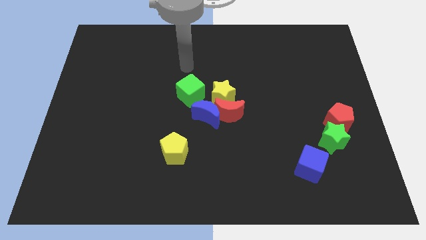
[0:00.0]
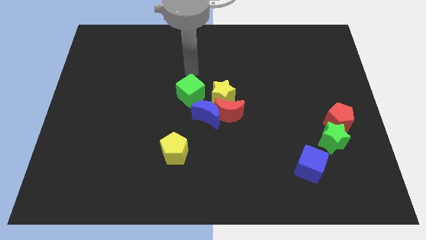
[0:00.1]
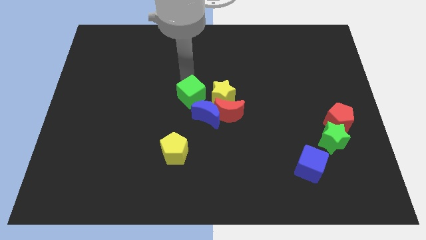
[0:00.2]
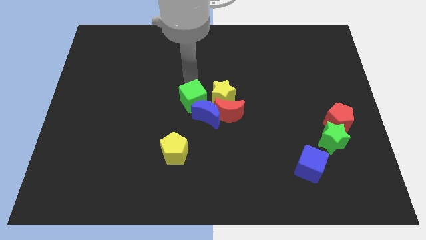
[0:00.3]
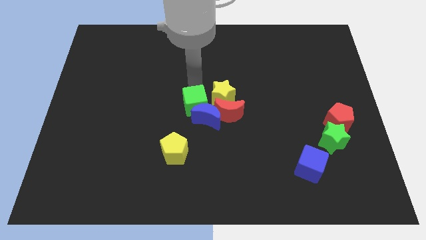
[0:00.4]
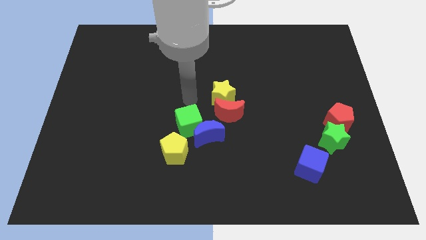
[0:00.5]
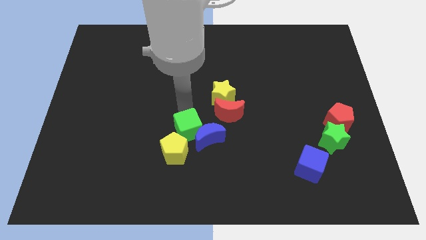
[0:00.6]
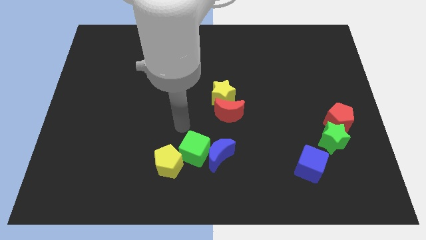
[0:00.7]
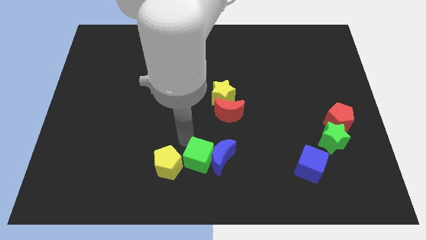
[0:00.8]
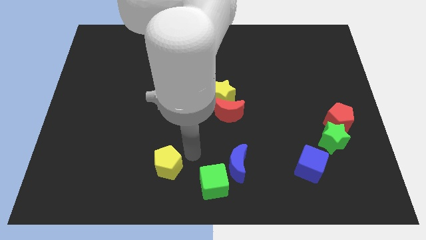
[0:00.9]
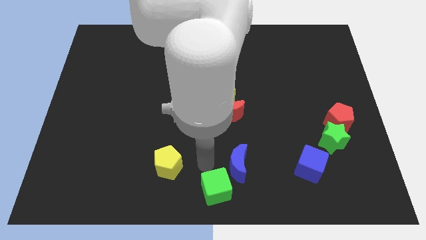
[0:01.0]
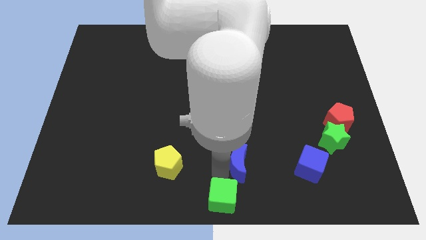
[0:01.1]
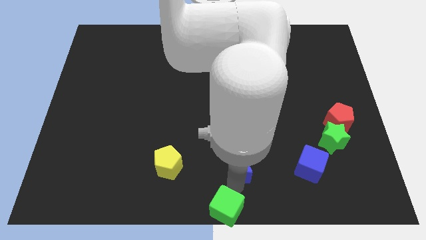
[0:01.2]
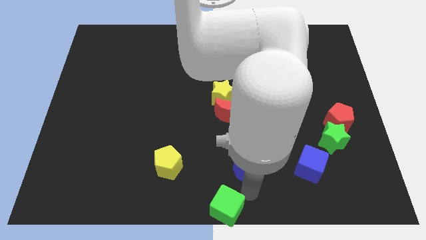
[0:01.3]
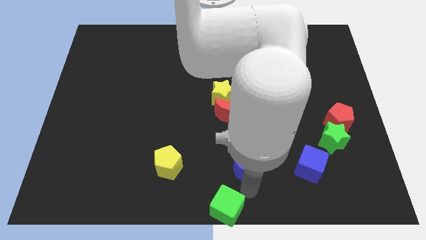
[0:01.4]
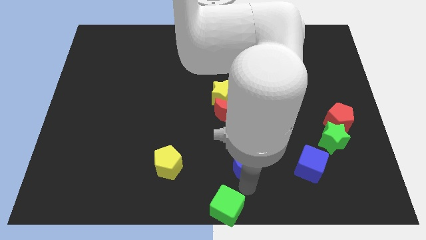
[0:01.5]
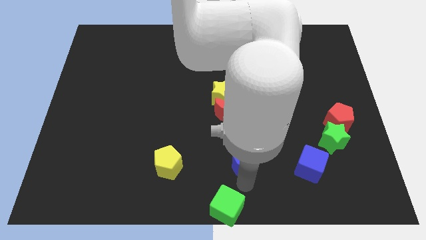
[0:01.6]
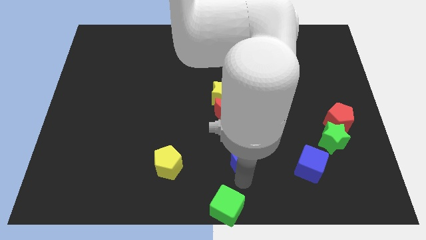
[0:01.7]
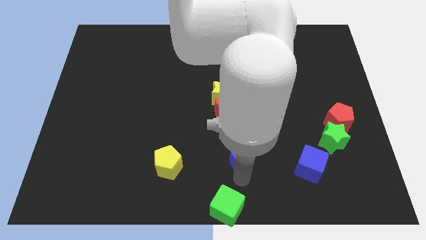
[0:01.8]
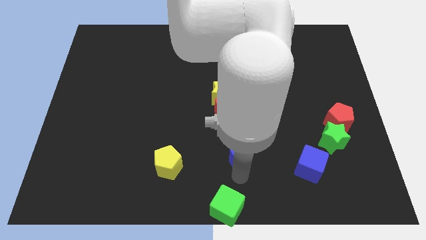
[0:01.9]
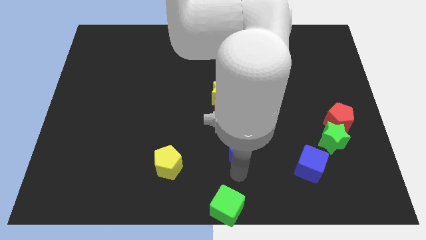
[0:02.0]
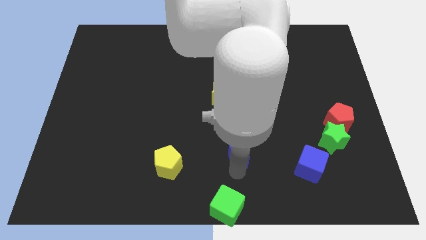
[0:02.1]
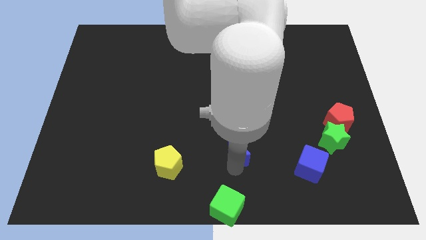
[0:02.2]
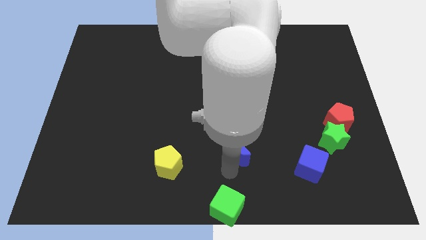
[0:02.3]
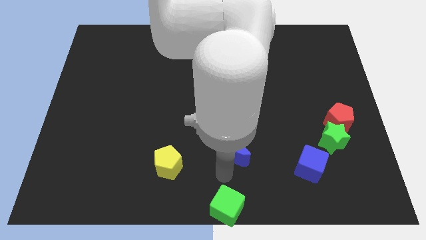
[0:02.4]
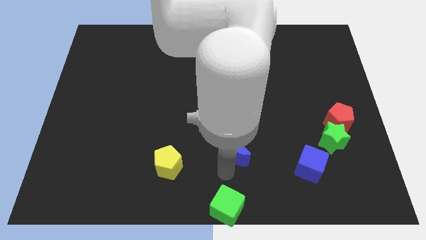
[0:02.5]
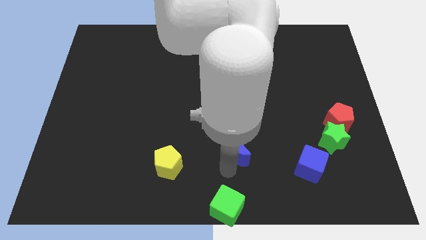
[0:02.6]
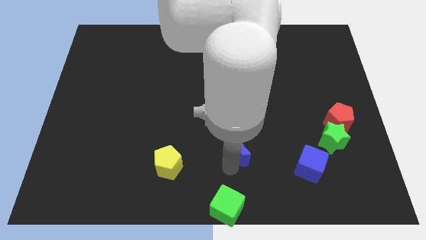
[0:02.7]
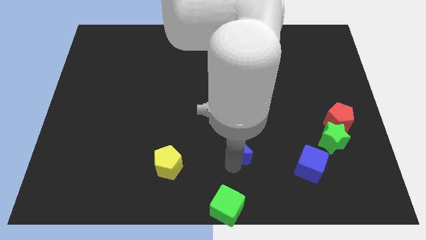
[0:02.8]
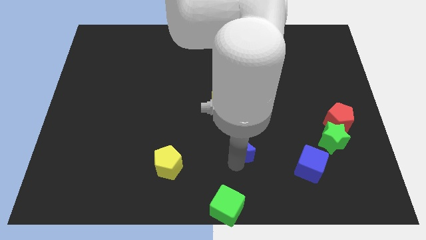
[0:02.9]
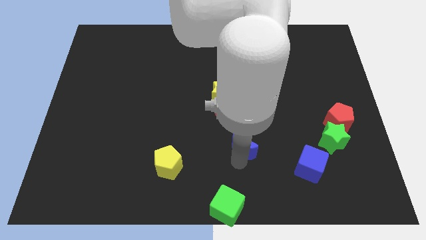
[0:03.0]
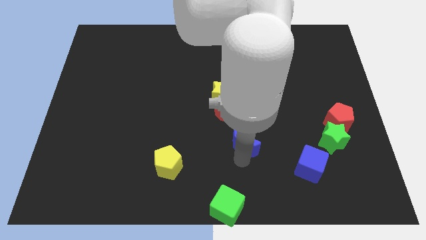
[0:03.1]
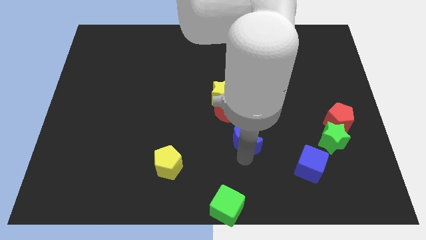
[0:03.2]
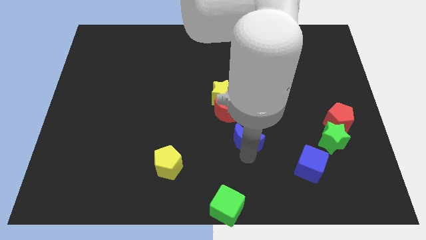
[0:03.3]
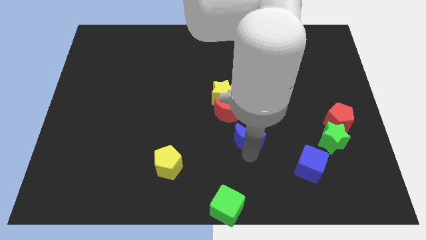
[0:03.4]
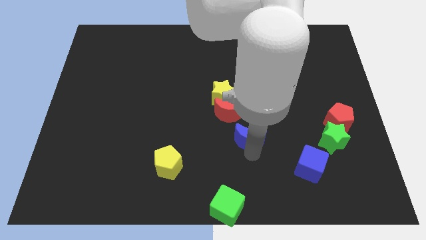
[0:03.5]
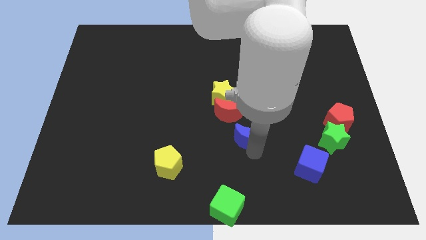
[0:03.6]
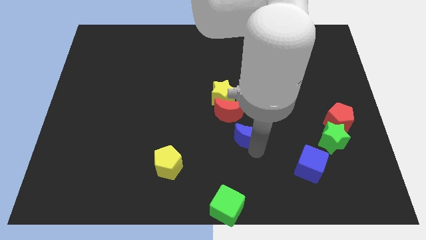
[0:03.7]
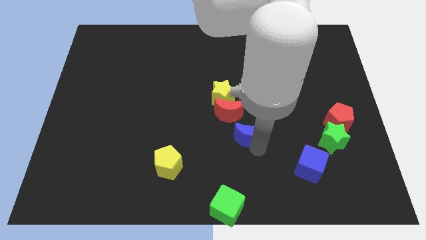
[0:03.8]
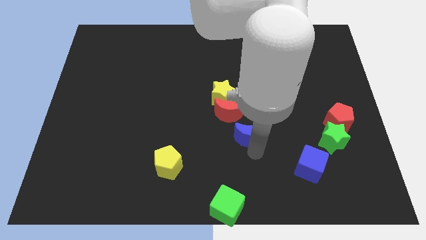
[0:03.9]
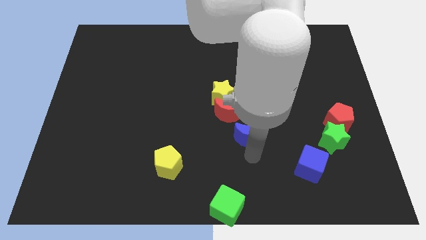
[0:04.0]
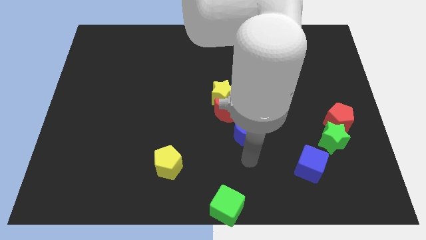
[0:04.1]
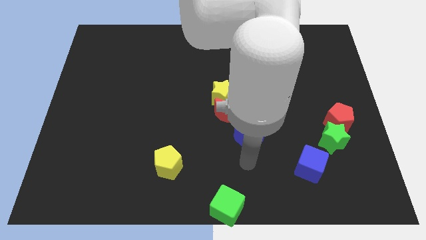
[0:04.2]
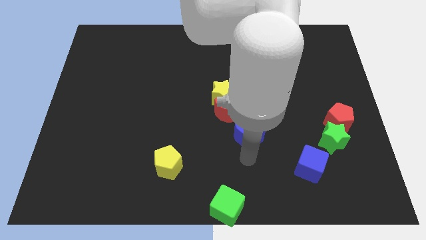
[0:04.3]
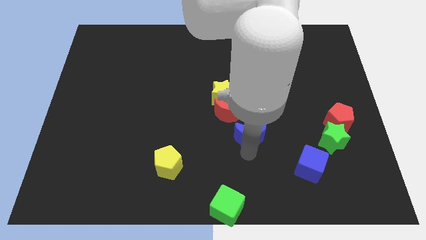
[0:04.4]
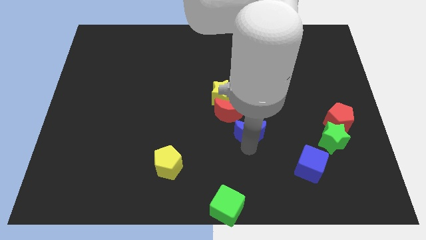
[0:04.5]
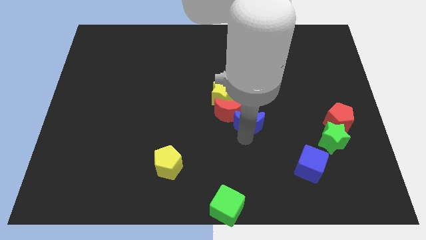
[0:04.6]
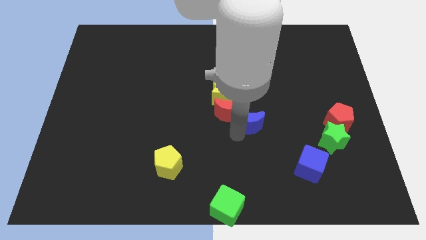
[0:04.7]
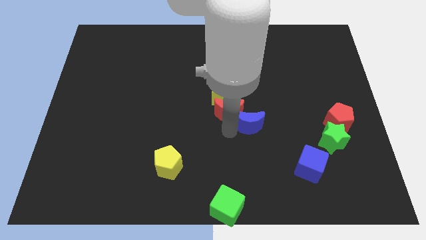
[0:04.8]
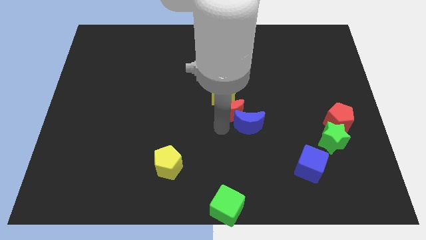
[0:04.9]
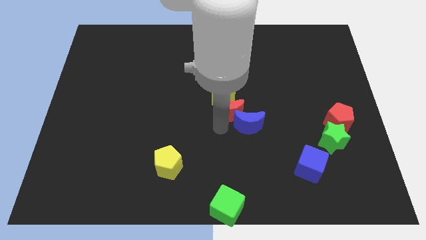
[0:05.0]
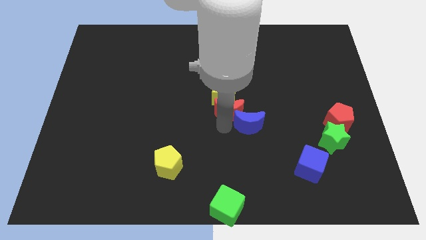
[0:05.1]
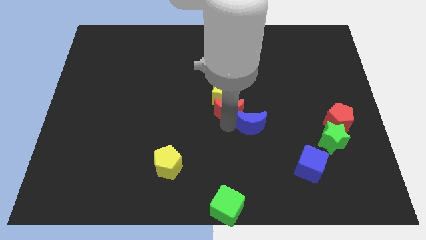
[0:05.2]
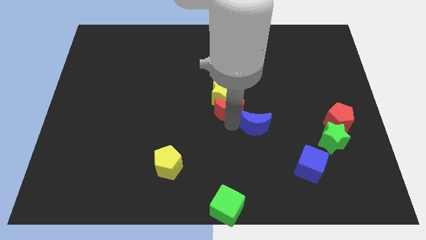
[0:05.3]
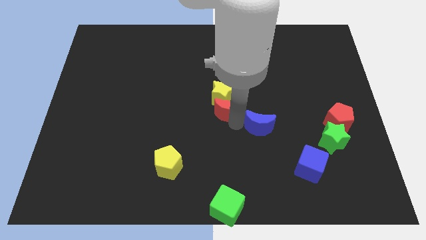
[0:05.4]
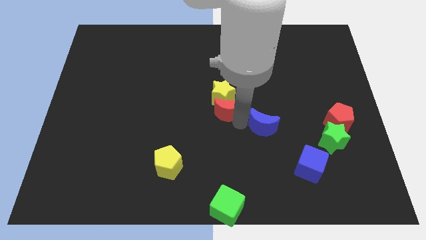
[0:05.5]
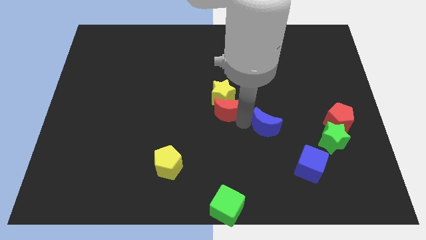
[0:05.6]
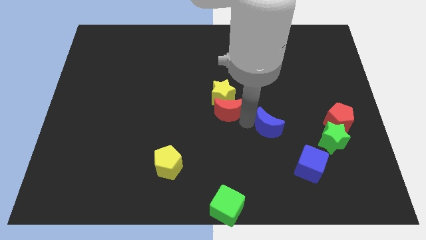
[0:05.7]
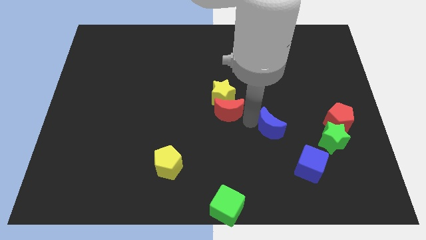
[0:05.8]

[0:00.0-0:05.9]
put the blue moon just left of the red pentagon

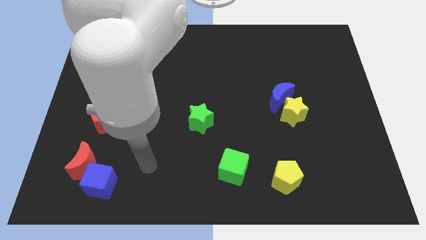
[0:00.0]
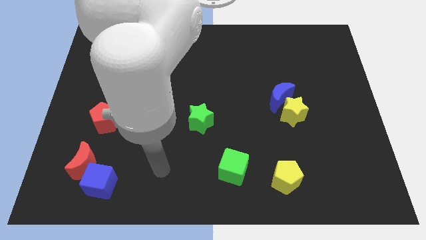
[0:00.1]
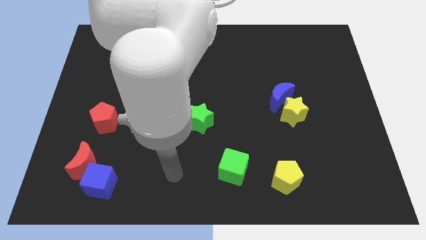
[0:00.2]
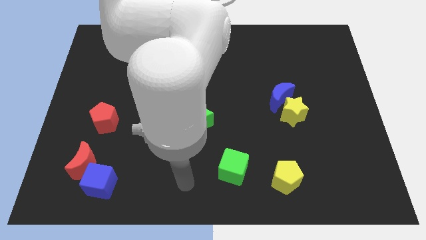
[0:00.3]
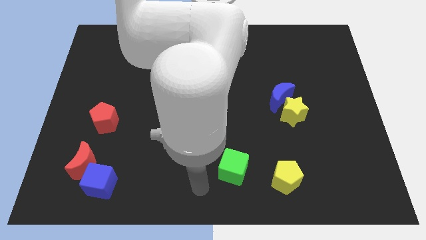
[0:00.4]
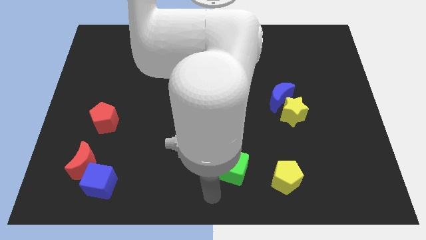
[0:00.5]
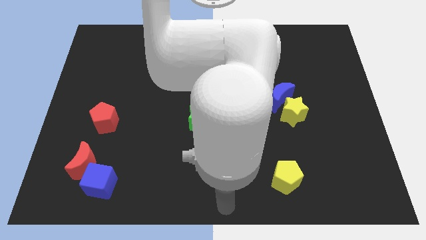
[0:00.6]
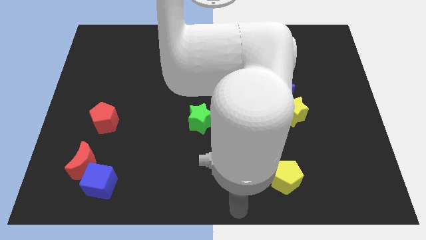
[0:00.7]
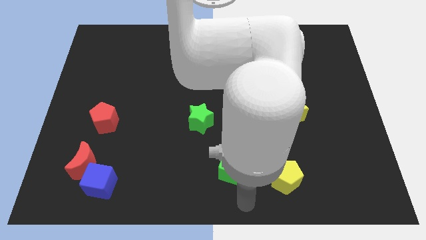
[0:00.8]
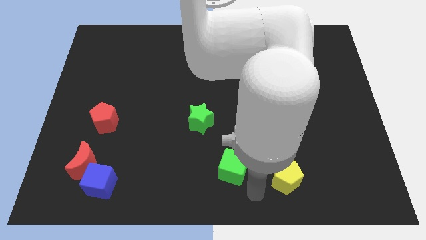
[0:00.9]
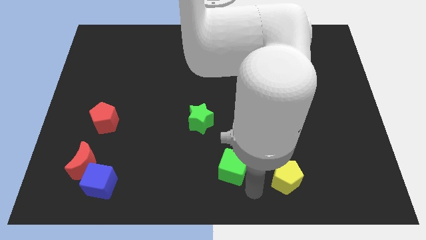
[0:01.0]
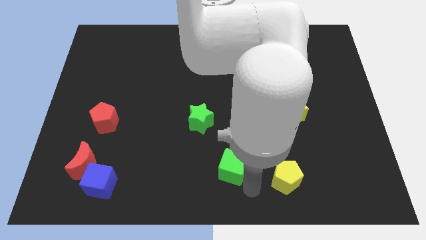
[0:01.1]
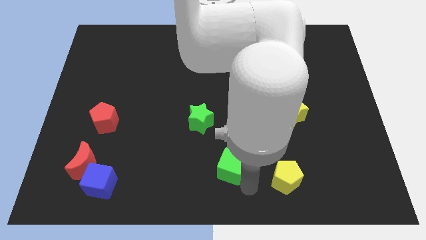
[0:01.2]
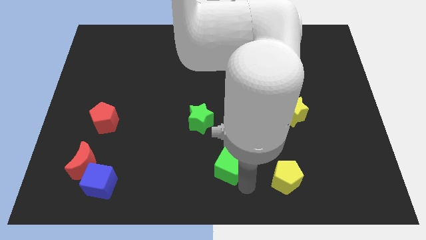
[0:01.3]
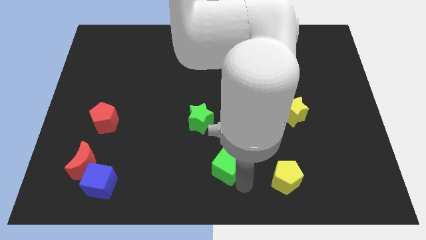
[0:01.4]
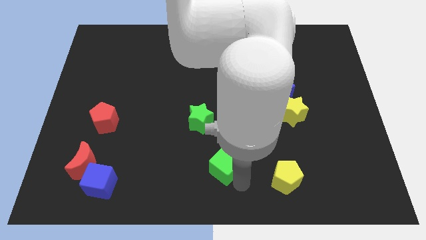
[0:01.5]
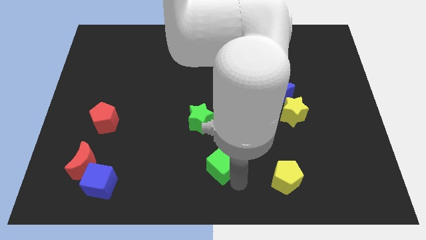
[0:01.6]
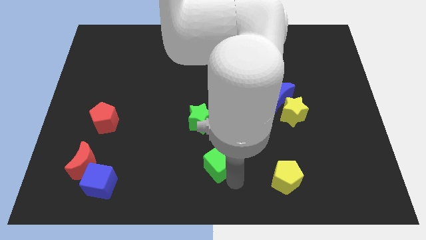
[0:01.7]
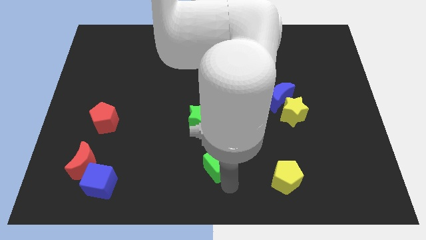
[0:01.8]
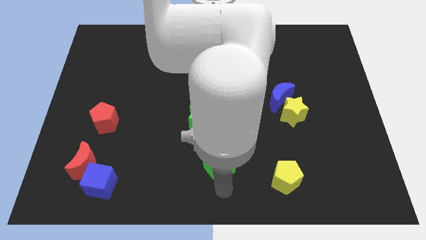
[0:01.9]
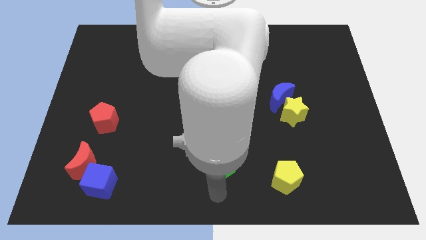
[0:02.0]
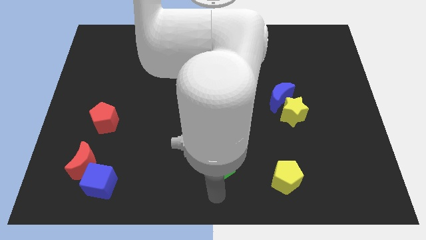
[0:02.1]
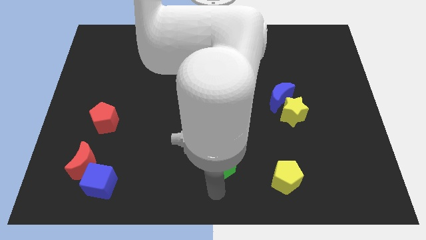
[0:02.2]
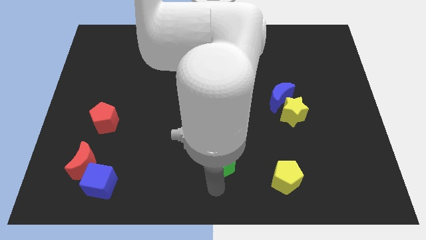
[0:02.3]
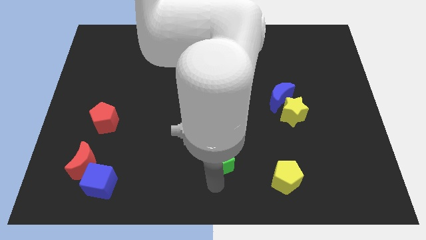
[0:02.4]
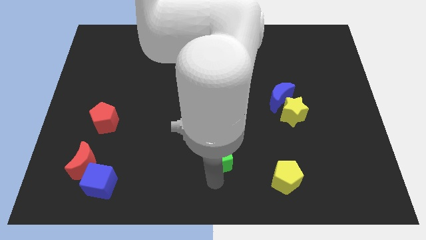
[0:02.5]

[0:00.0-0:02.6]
put the green cube to the bottom right side of the green star
